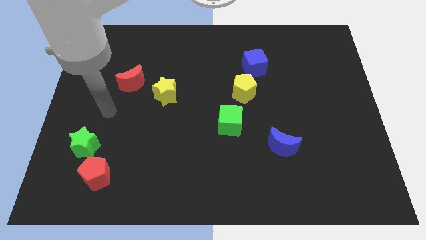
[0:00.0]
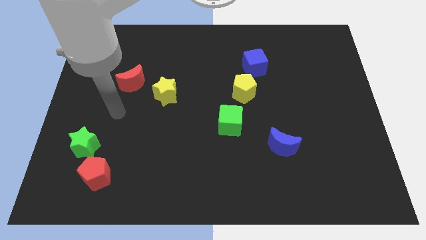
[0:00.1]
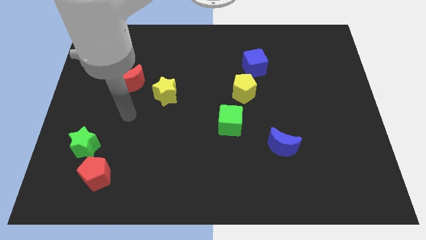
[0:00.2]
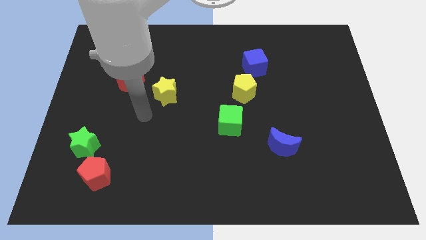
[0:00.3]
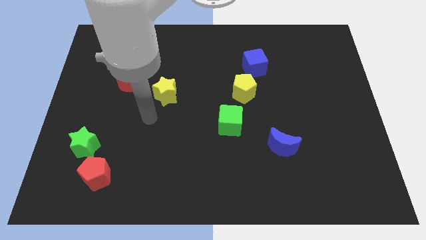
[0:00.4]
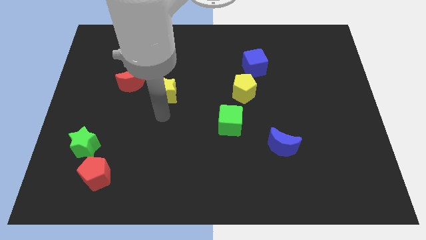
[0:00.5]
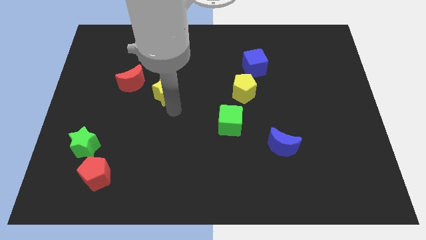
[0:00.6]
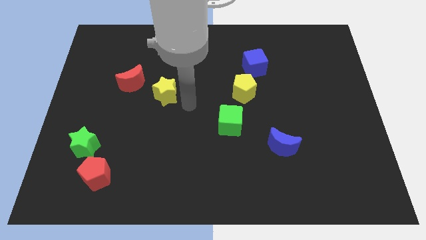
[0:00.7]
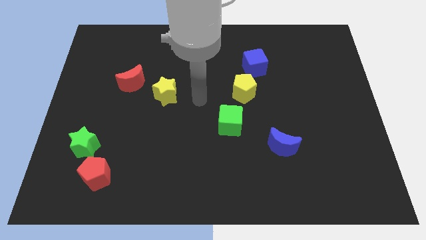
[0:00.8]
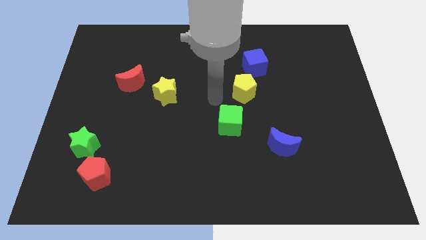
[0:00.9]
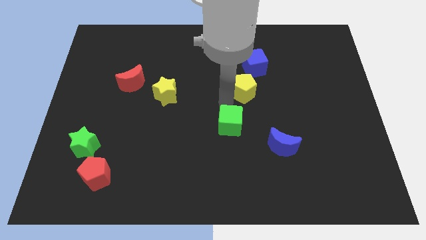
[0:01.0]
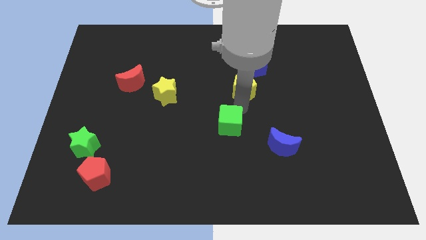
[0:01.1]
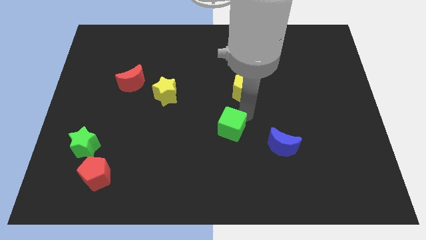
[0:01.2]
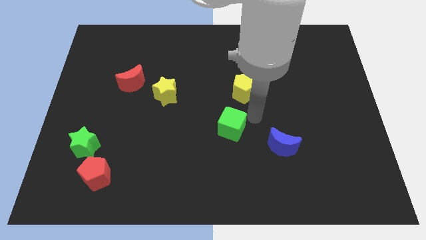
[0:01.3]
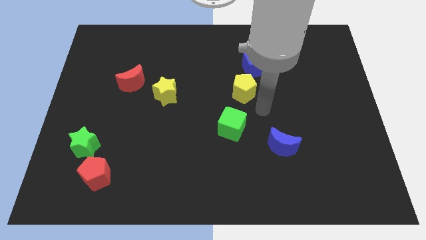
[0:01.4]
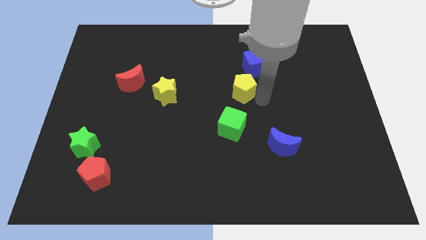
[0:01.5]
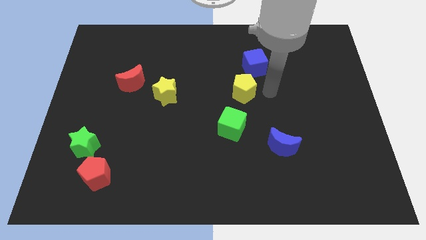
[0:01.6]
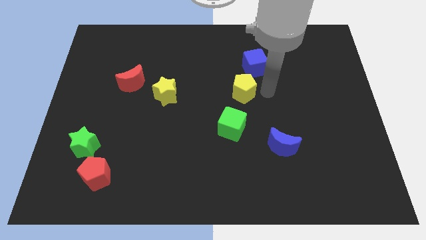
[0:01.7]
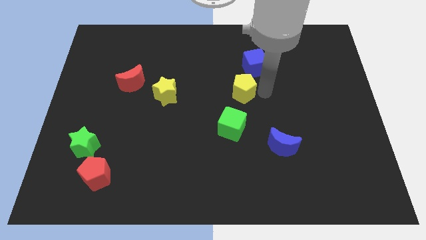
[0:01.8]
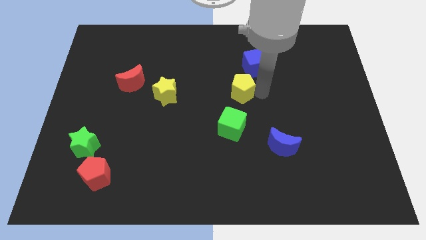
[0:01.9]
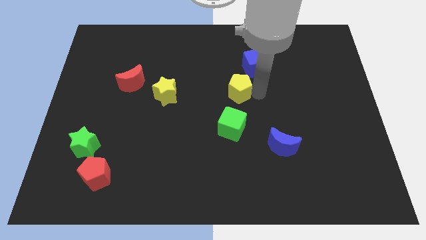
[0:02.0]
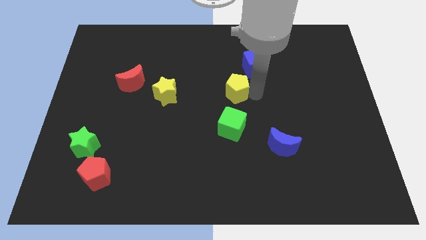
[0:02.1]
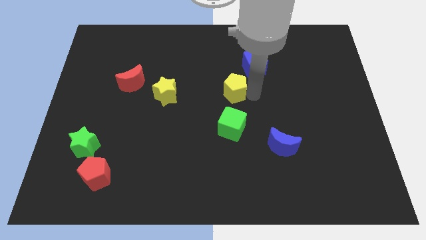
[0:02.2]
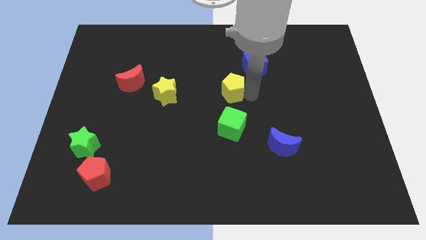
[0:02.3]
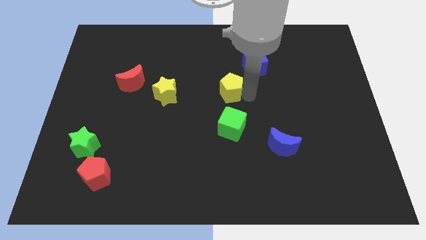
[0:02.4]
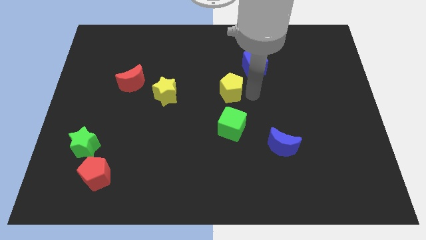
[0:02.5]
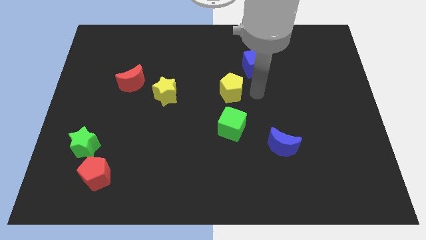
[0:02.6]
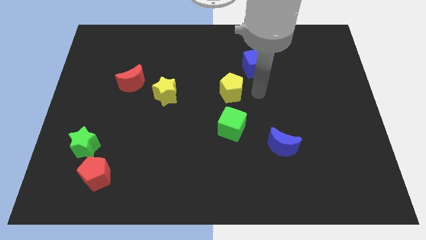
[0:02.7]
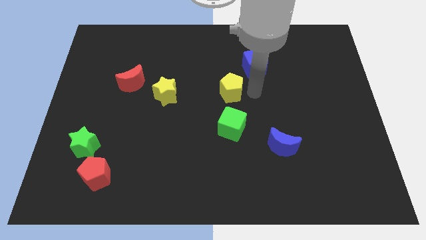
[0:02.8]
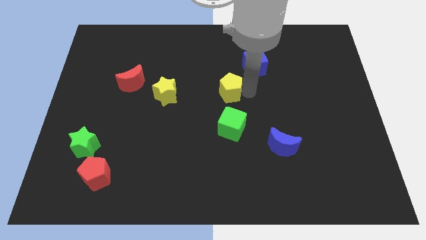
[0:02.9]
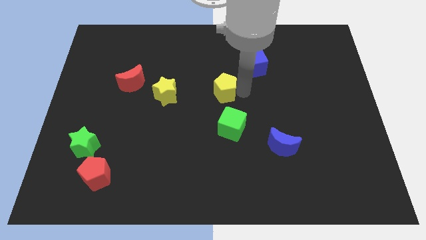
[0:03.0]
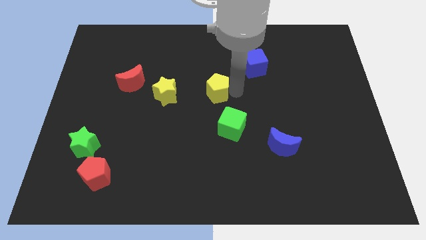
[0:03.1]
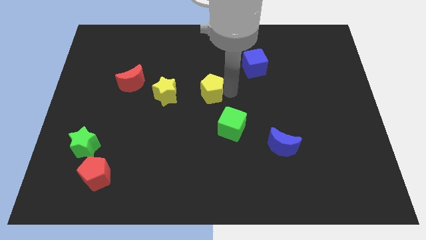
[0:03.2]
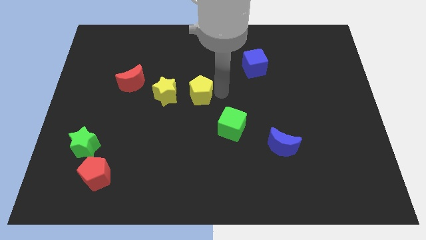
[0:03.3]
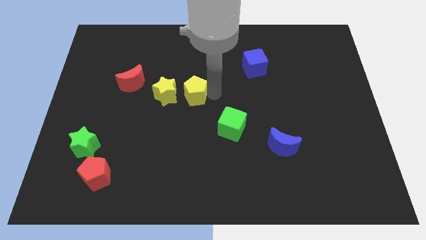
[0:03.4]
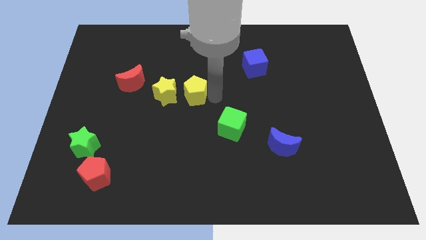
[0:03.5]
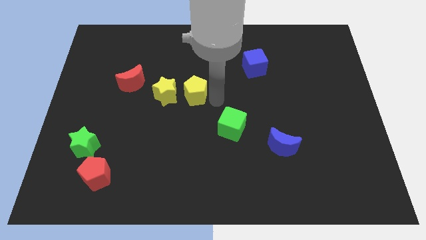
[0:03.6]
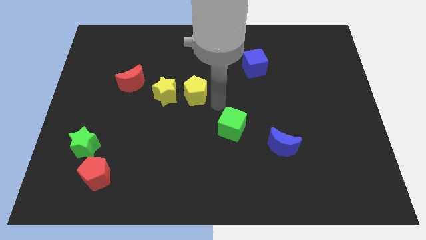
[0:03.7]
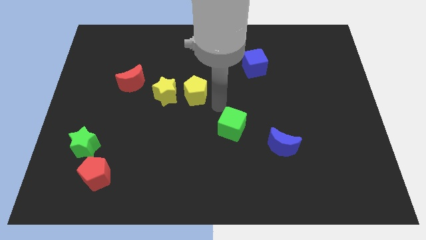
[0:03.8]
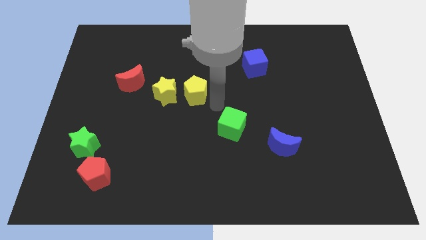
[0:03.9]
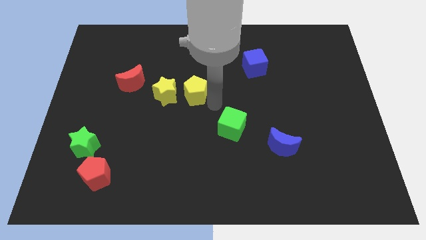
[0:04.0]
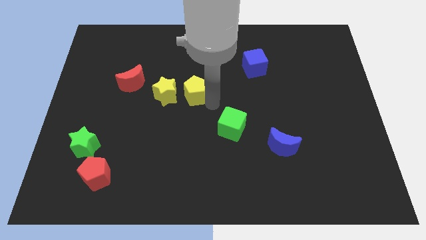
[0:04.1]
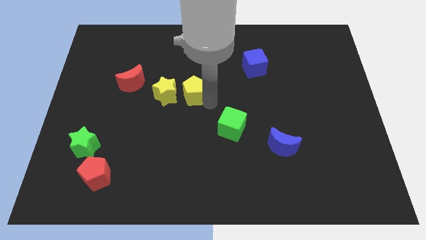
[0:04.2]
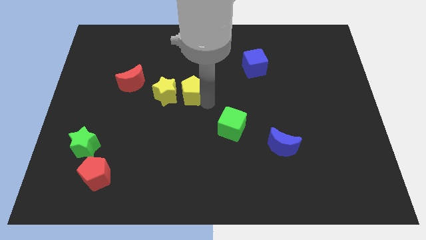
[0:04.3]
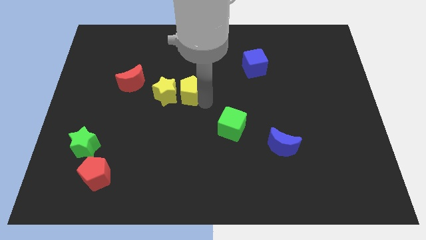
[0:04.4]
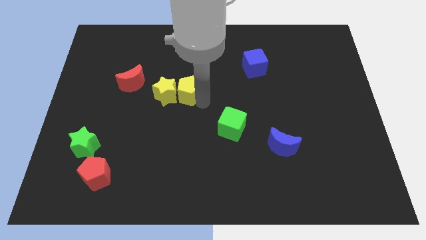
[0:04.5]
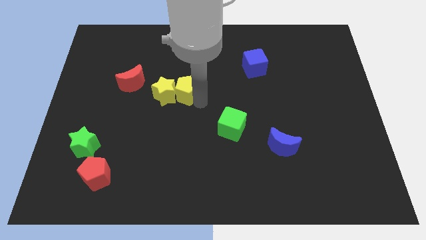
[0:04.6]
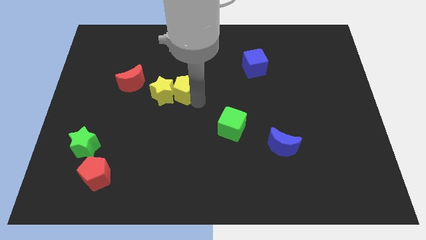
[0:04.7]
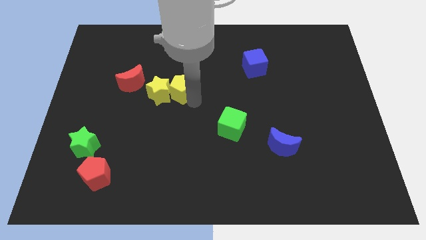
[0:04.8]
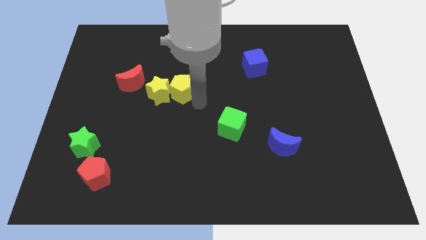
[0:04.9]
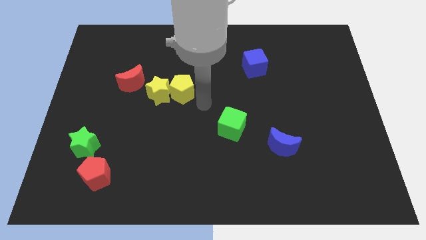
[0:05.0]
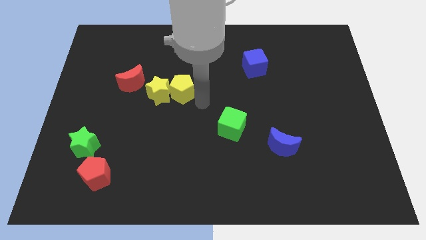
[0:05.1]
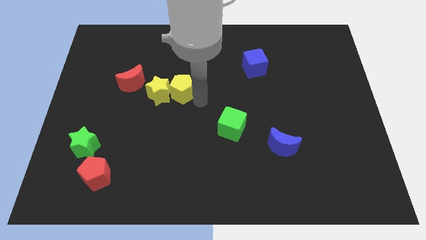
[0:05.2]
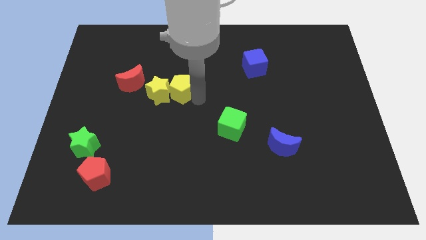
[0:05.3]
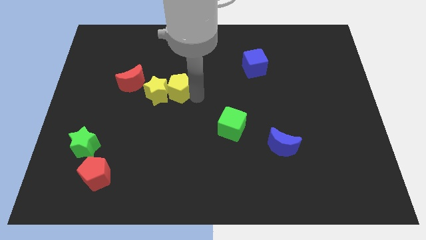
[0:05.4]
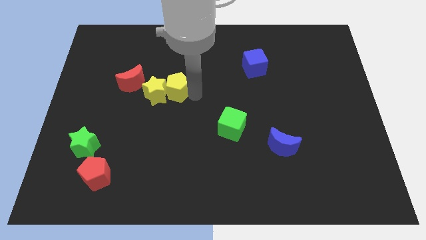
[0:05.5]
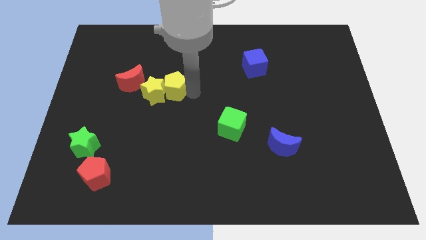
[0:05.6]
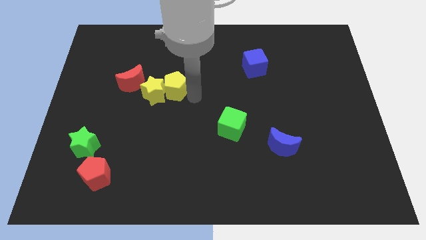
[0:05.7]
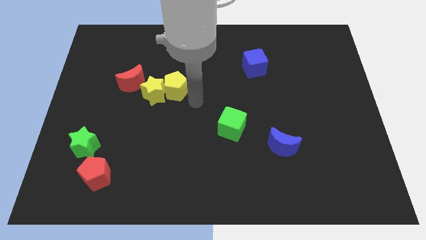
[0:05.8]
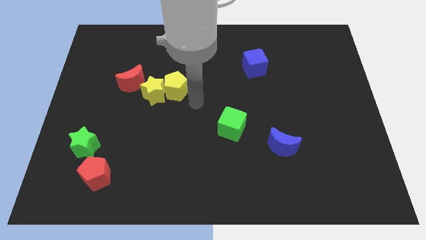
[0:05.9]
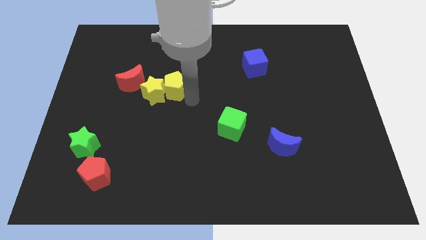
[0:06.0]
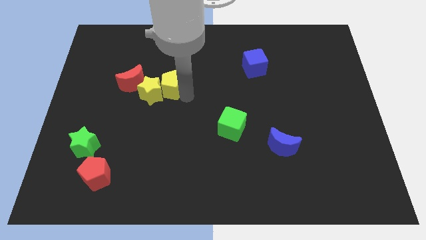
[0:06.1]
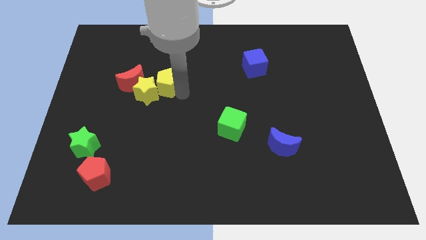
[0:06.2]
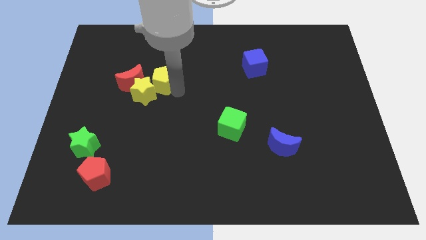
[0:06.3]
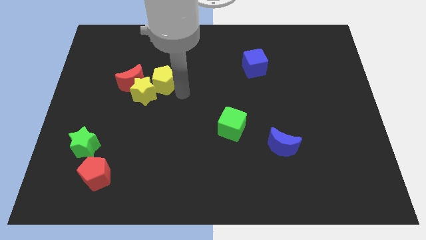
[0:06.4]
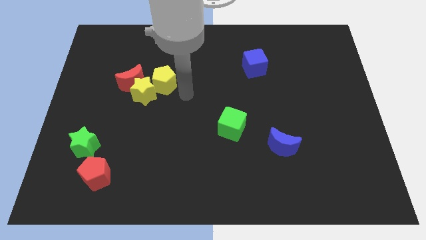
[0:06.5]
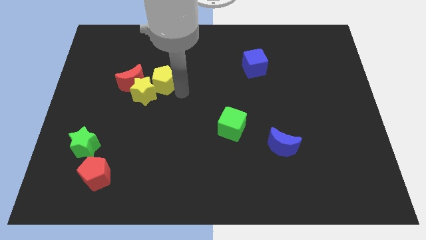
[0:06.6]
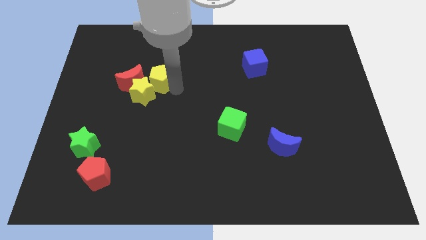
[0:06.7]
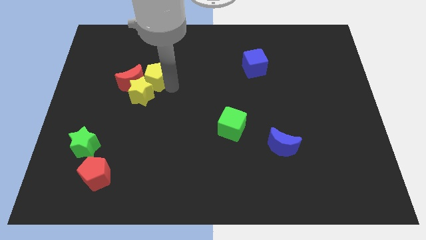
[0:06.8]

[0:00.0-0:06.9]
put the yellow pentagon next to the red moon
